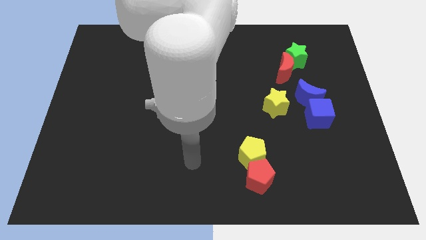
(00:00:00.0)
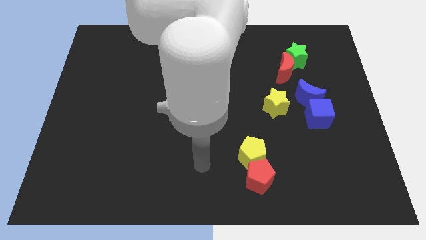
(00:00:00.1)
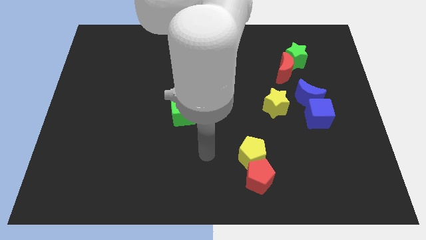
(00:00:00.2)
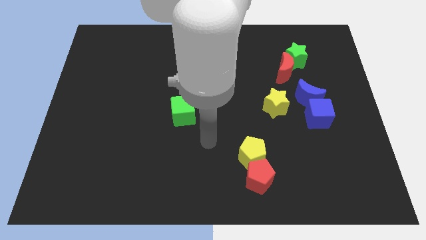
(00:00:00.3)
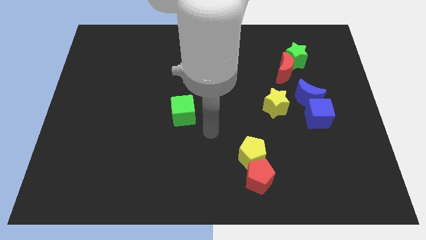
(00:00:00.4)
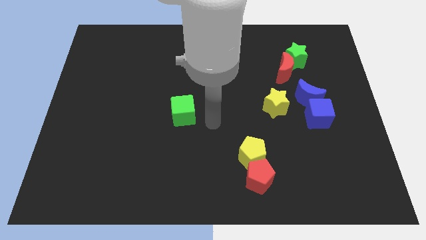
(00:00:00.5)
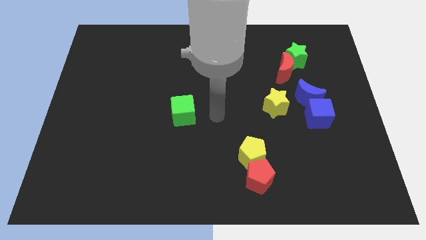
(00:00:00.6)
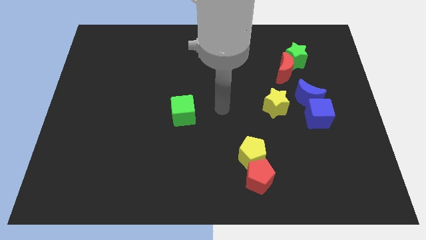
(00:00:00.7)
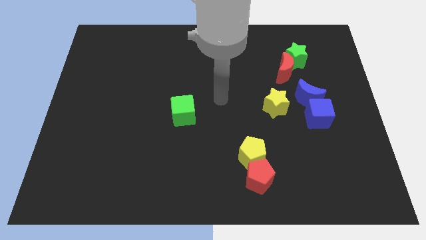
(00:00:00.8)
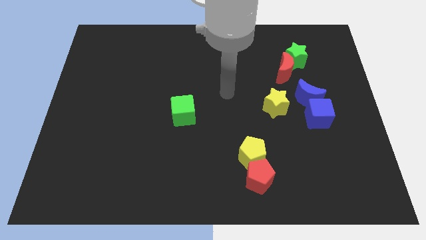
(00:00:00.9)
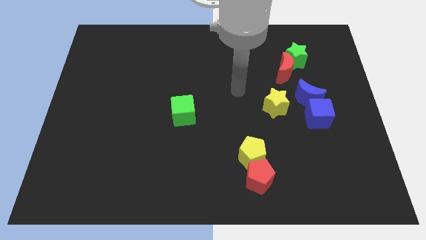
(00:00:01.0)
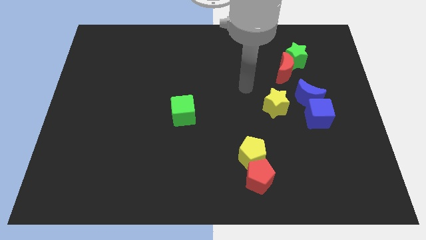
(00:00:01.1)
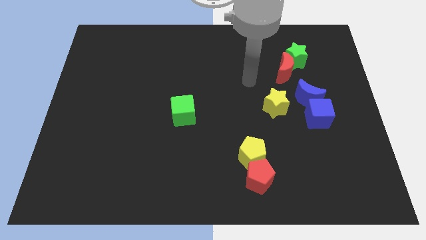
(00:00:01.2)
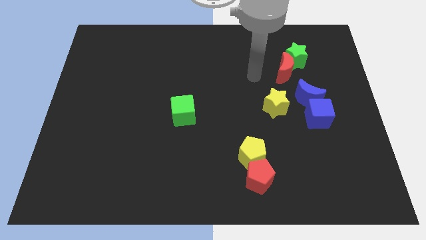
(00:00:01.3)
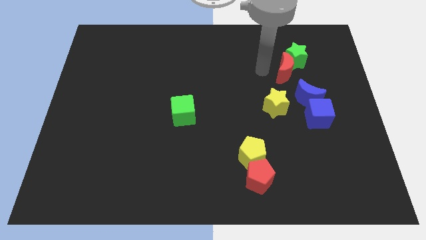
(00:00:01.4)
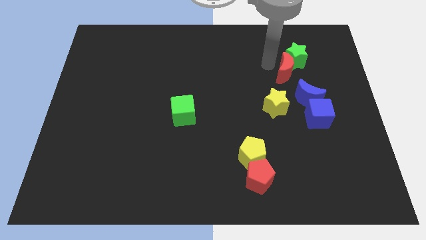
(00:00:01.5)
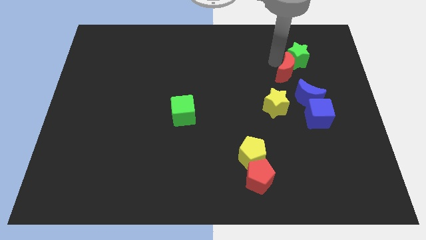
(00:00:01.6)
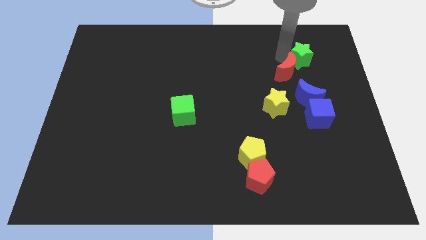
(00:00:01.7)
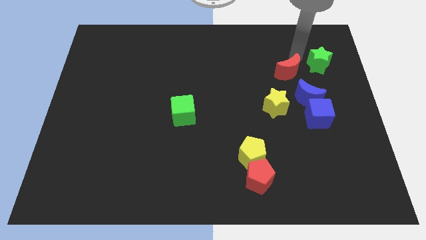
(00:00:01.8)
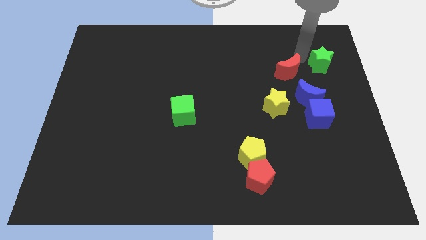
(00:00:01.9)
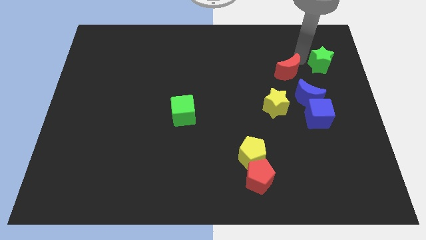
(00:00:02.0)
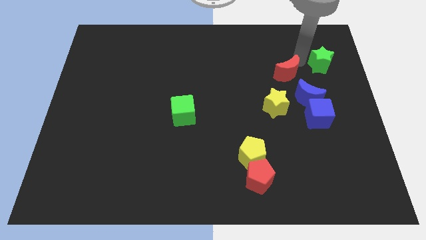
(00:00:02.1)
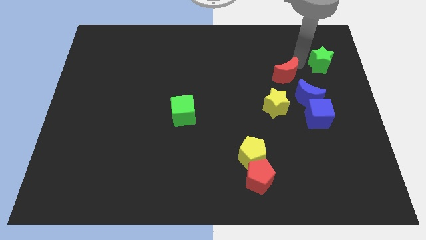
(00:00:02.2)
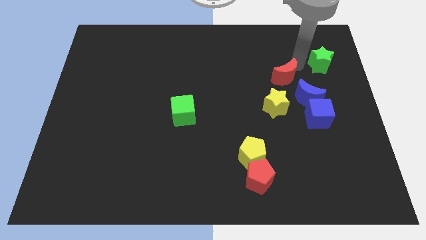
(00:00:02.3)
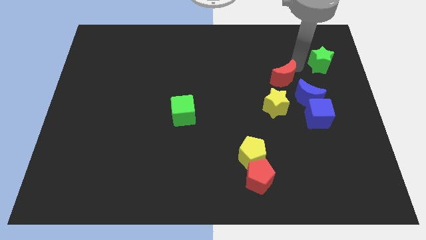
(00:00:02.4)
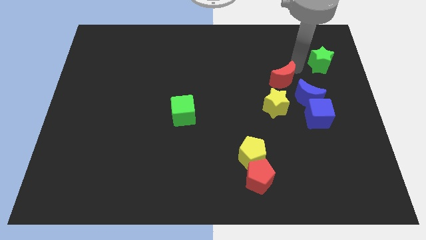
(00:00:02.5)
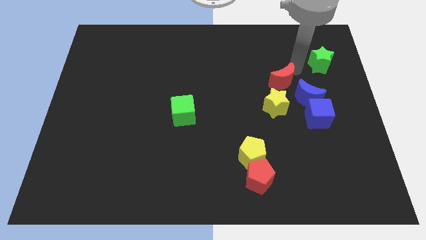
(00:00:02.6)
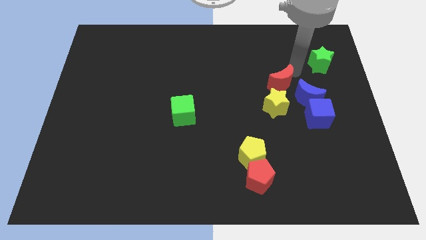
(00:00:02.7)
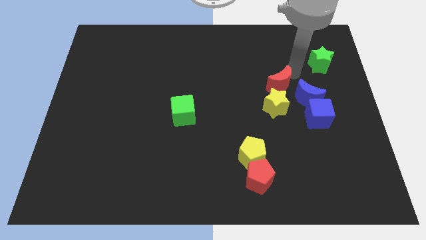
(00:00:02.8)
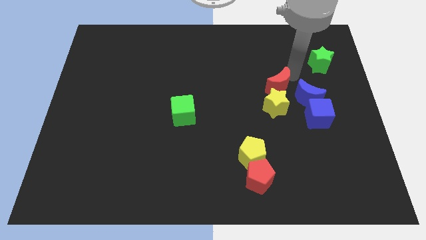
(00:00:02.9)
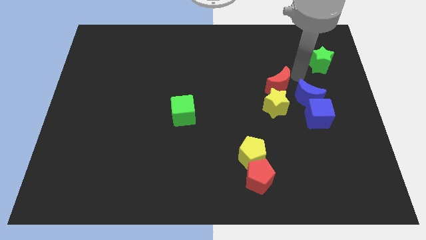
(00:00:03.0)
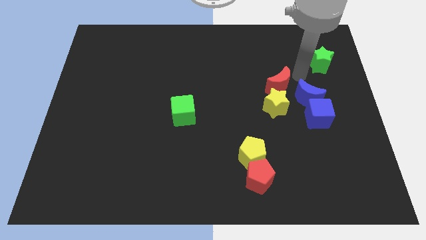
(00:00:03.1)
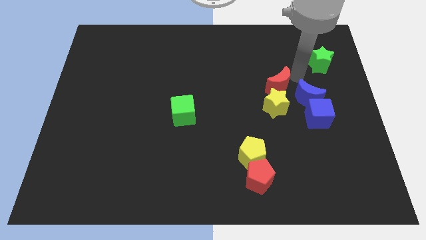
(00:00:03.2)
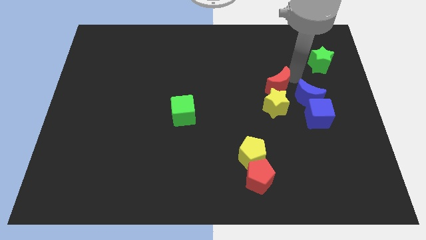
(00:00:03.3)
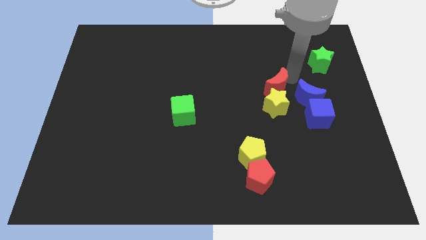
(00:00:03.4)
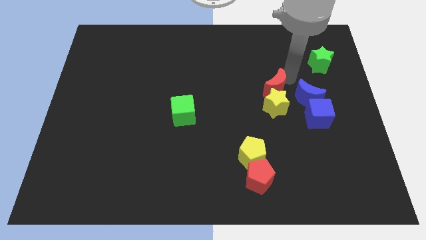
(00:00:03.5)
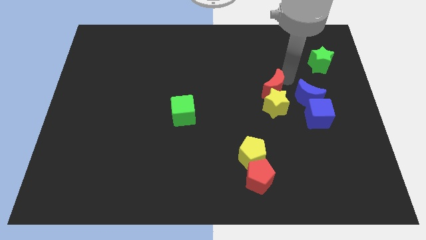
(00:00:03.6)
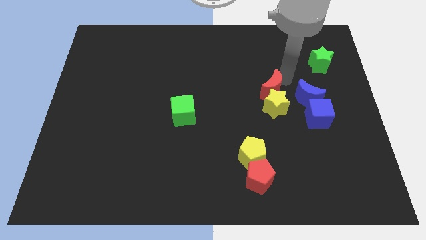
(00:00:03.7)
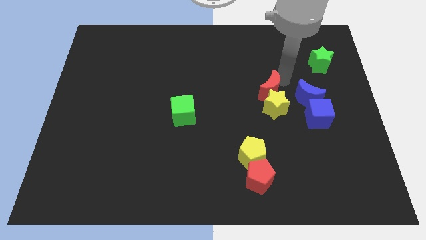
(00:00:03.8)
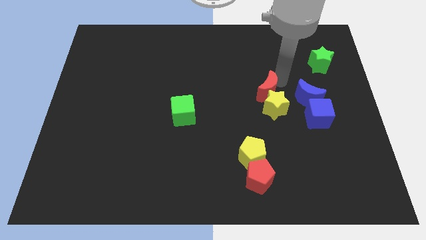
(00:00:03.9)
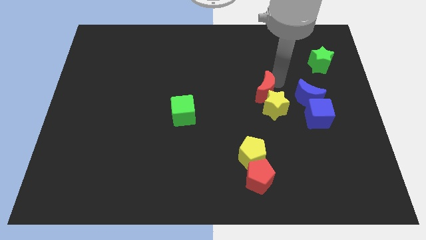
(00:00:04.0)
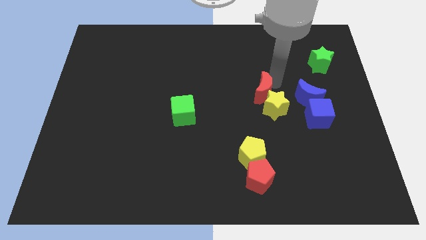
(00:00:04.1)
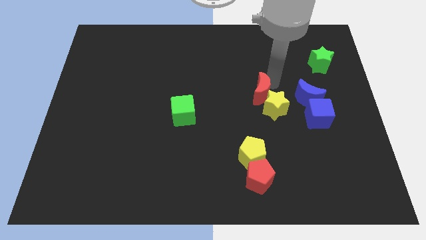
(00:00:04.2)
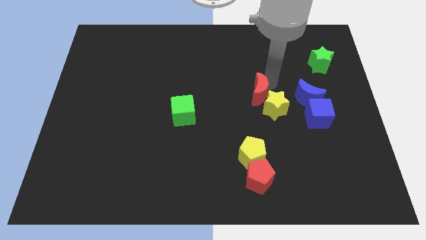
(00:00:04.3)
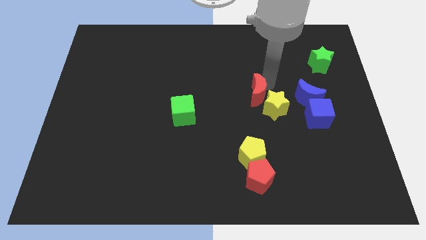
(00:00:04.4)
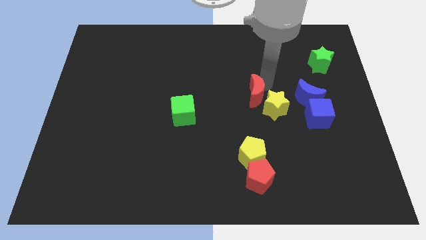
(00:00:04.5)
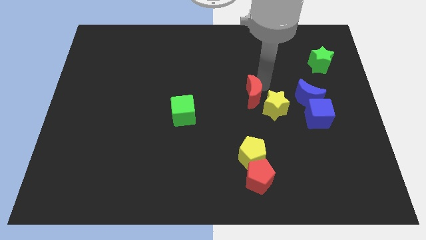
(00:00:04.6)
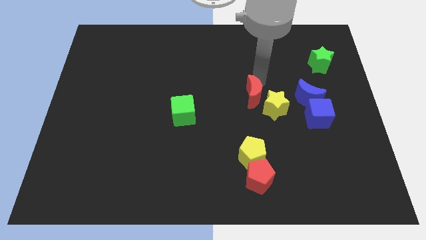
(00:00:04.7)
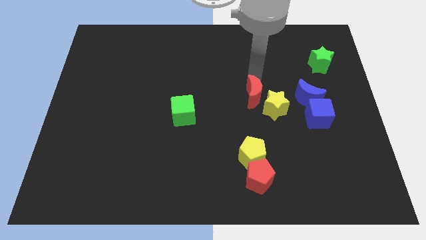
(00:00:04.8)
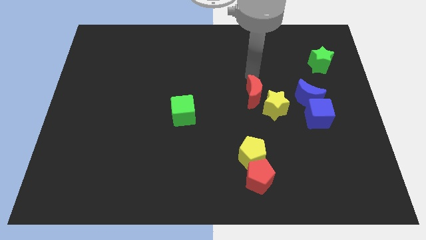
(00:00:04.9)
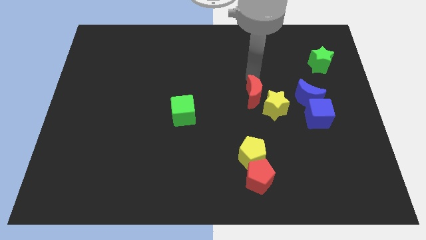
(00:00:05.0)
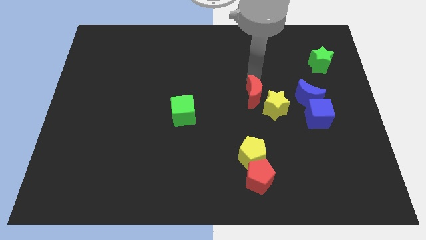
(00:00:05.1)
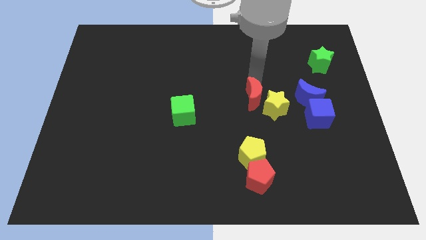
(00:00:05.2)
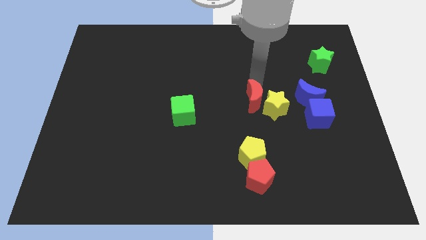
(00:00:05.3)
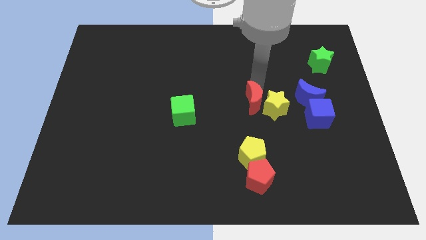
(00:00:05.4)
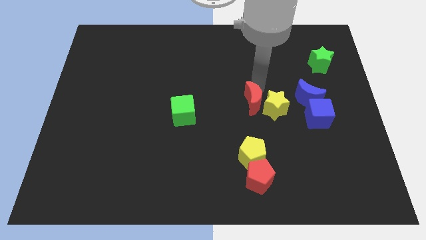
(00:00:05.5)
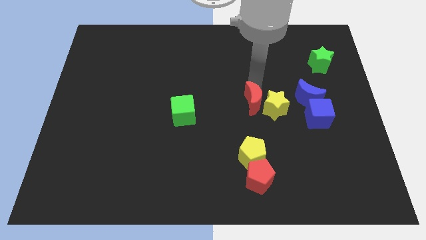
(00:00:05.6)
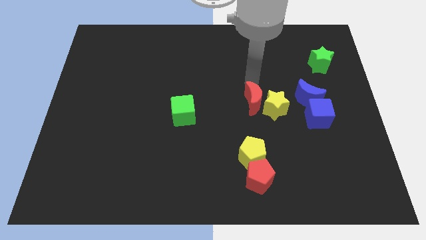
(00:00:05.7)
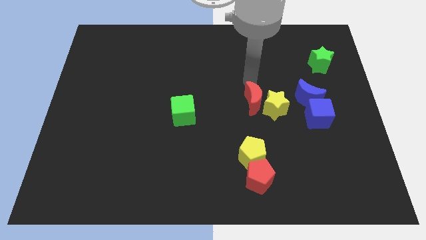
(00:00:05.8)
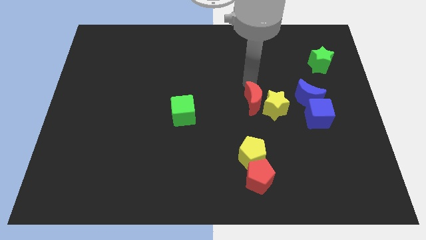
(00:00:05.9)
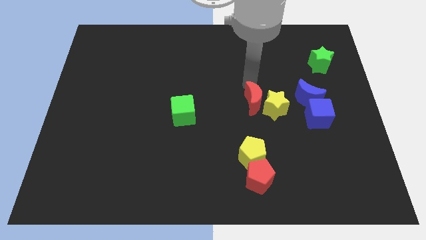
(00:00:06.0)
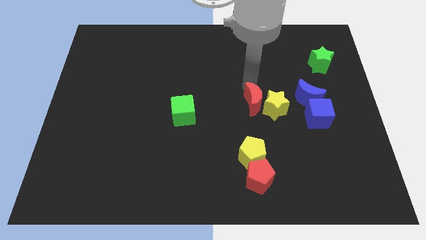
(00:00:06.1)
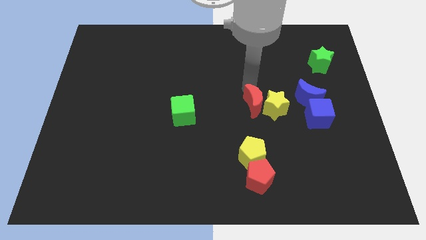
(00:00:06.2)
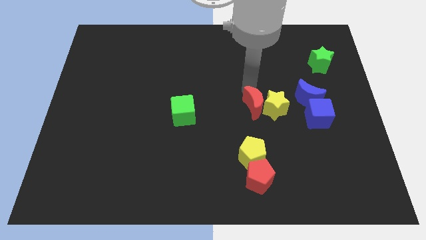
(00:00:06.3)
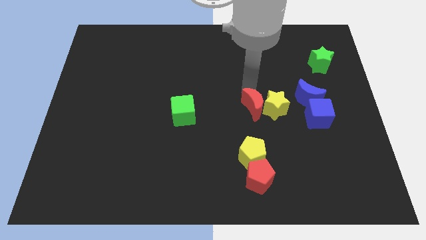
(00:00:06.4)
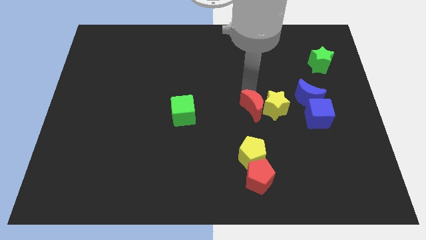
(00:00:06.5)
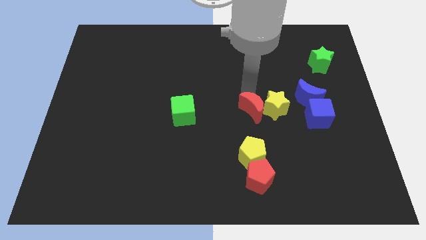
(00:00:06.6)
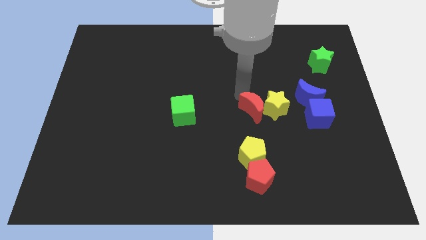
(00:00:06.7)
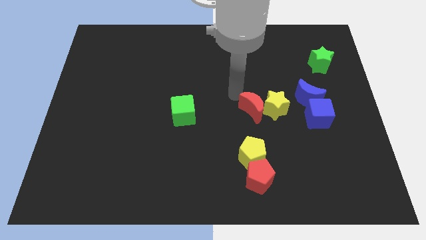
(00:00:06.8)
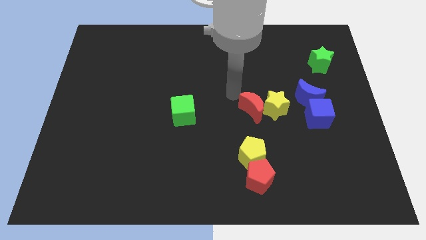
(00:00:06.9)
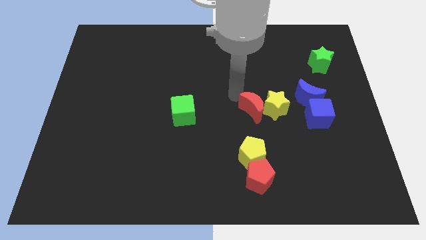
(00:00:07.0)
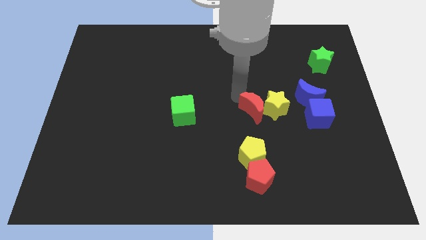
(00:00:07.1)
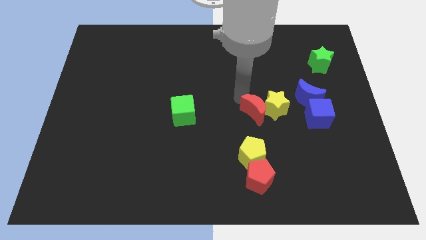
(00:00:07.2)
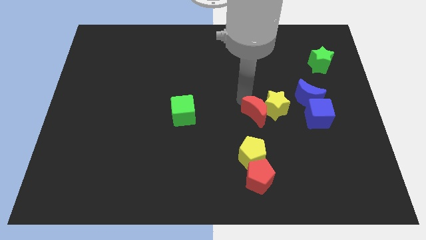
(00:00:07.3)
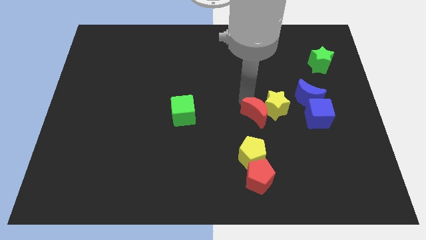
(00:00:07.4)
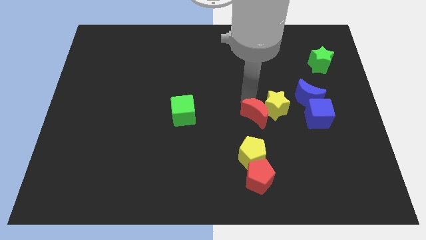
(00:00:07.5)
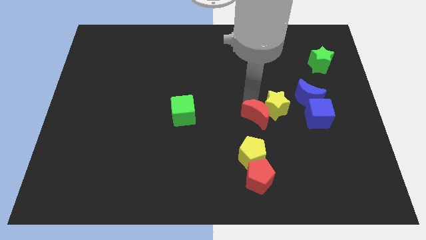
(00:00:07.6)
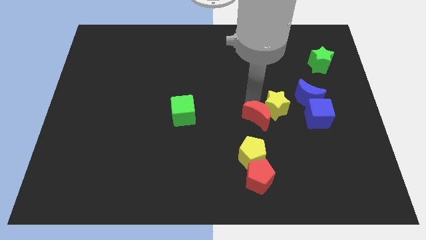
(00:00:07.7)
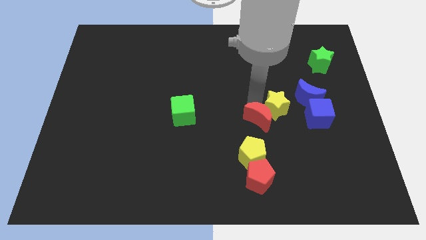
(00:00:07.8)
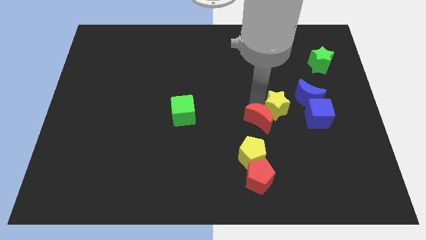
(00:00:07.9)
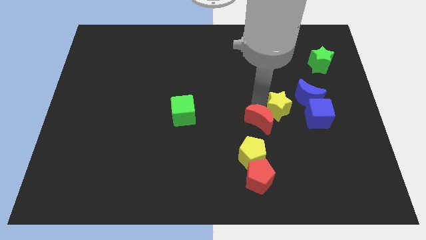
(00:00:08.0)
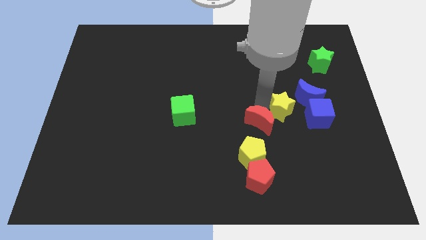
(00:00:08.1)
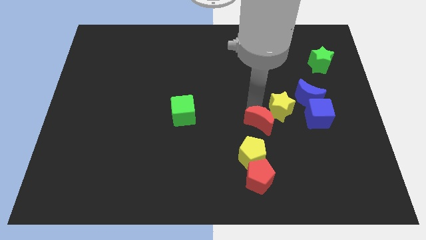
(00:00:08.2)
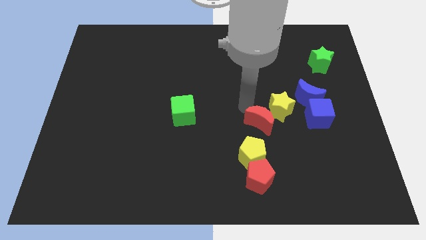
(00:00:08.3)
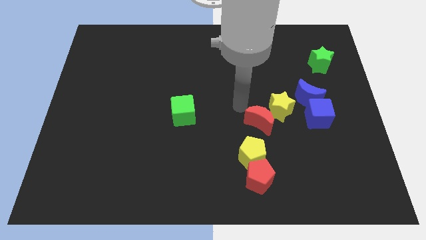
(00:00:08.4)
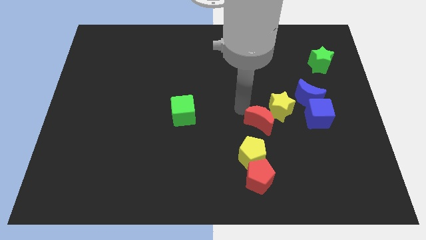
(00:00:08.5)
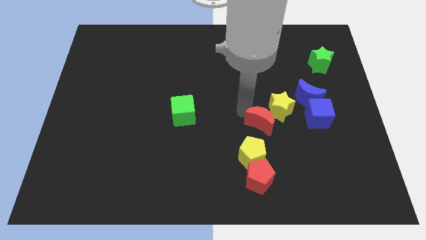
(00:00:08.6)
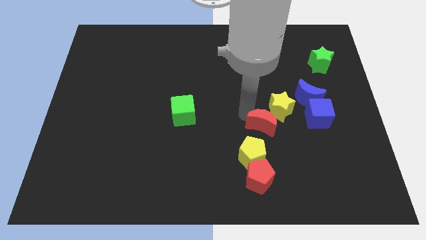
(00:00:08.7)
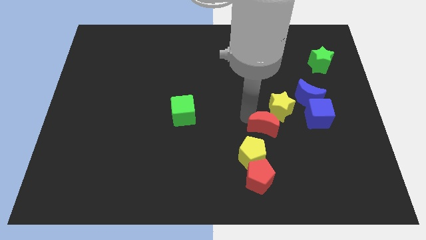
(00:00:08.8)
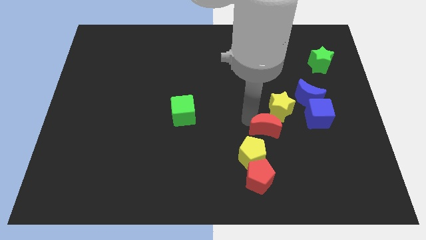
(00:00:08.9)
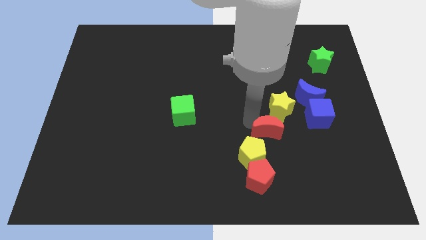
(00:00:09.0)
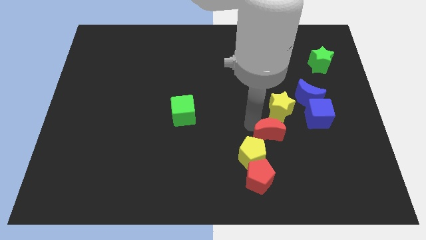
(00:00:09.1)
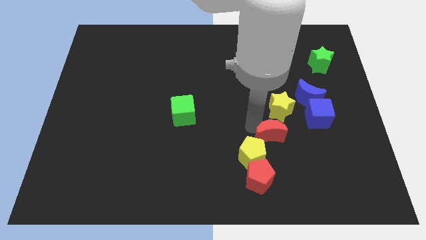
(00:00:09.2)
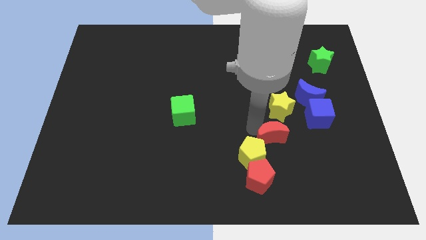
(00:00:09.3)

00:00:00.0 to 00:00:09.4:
slide the red moon just right of the yellow pentagon
